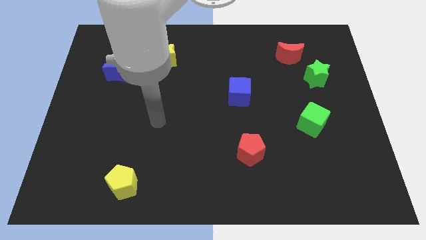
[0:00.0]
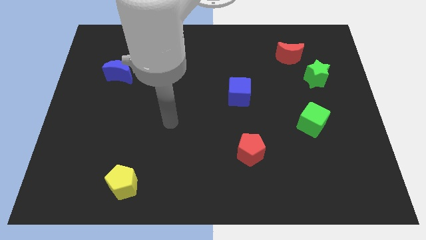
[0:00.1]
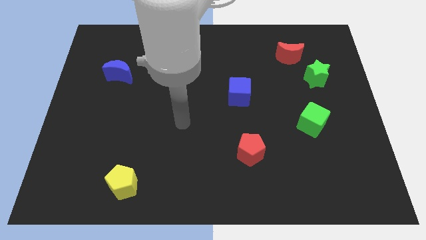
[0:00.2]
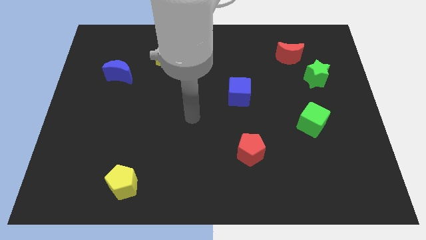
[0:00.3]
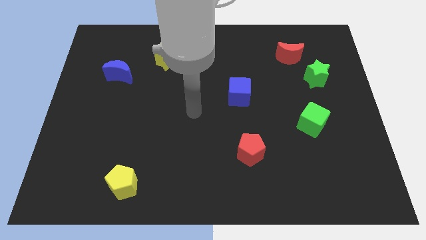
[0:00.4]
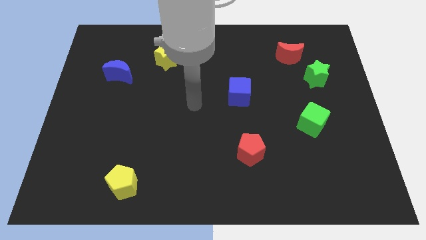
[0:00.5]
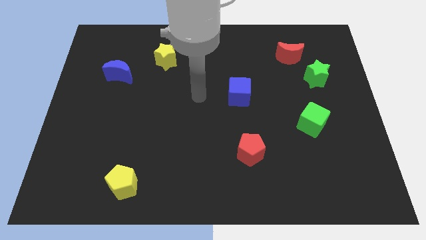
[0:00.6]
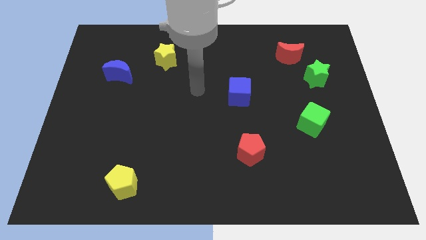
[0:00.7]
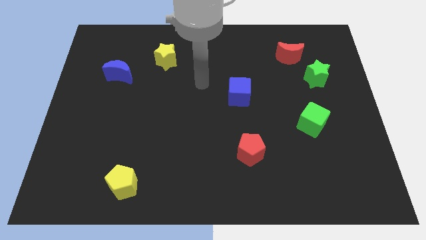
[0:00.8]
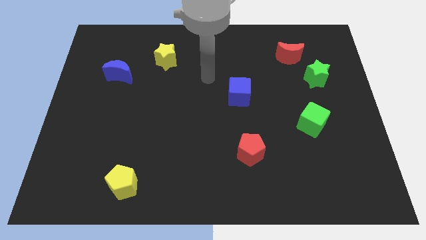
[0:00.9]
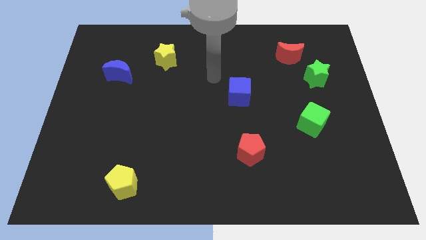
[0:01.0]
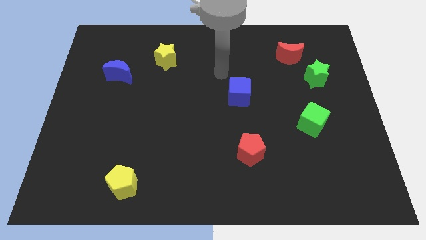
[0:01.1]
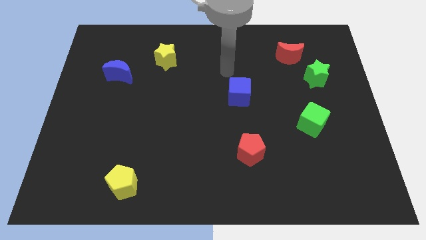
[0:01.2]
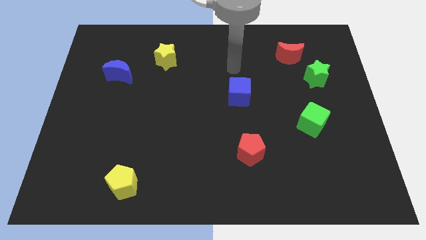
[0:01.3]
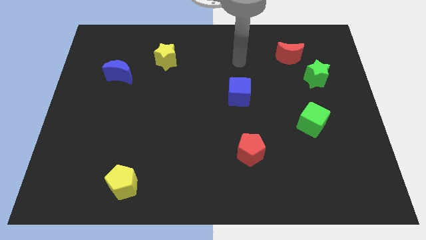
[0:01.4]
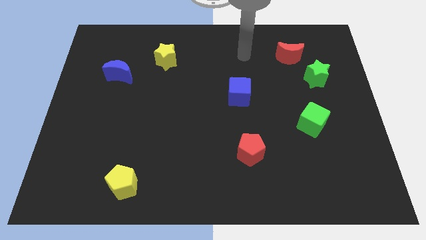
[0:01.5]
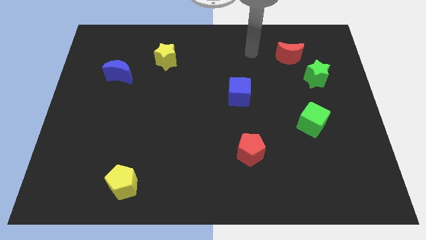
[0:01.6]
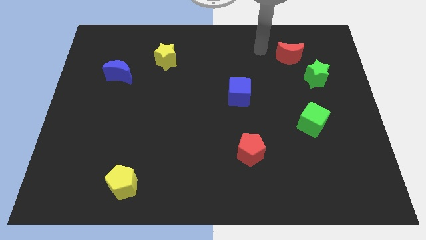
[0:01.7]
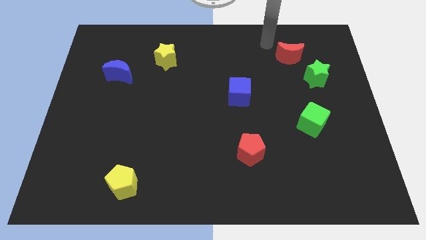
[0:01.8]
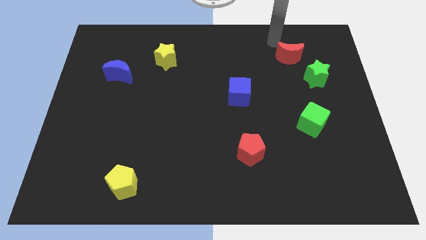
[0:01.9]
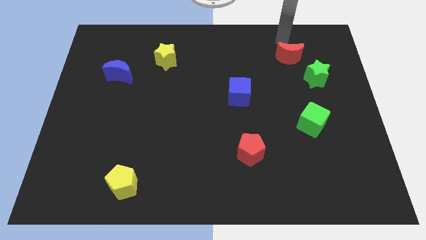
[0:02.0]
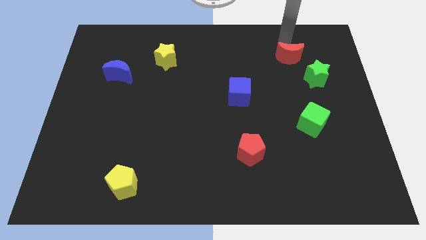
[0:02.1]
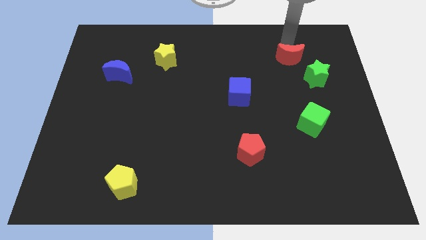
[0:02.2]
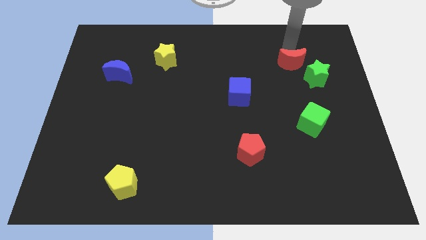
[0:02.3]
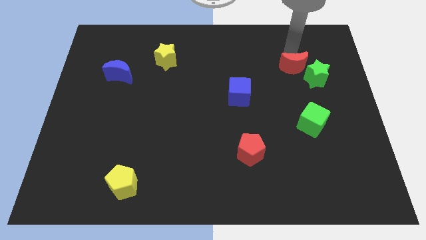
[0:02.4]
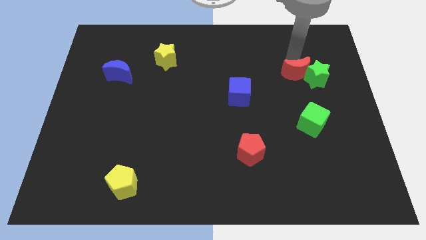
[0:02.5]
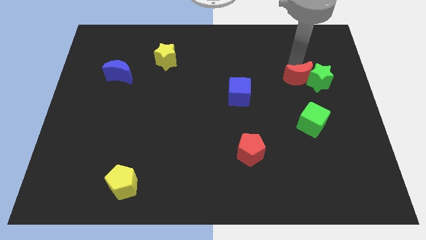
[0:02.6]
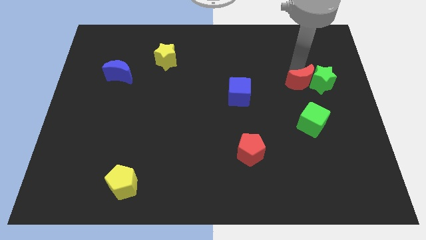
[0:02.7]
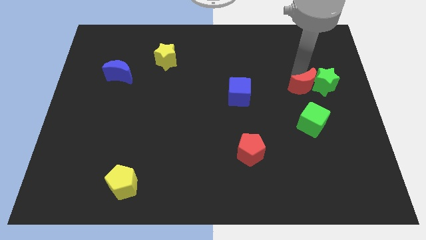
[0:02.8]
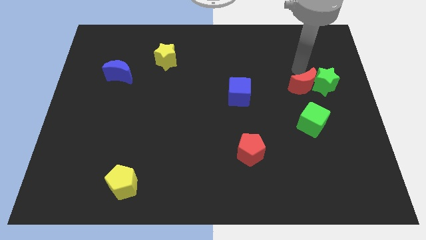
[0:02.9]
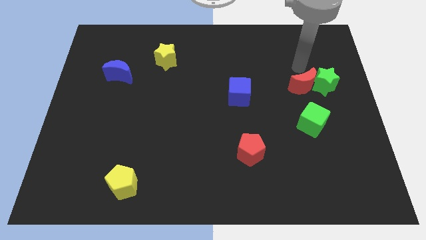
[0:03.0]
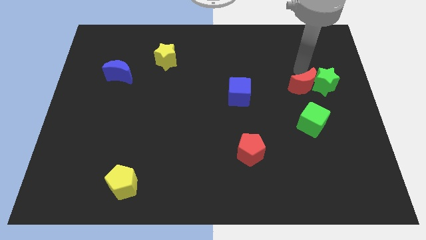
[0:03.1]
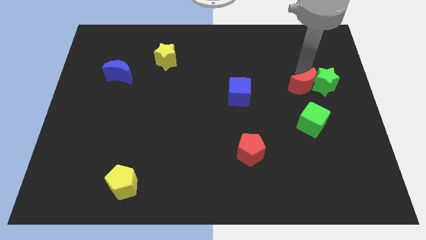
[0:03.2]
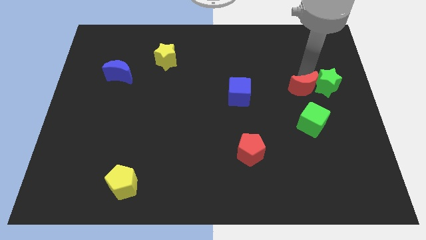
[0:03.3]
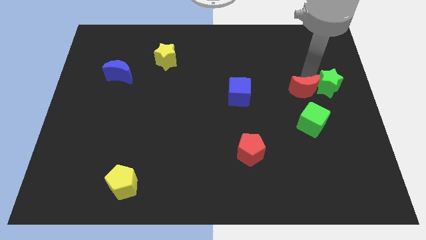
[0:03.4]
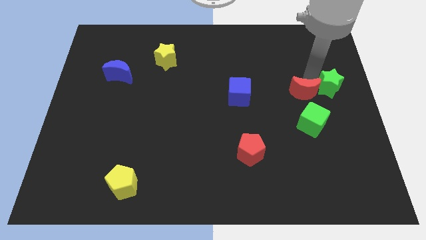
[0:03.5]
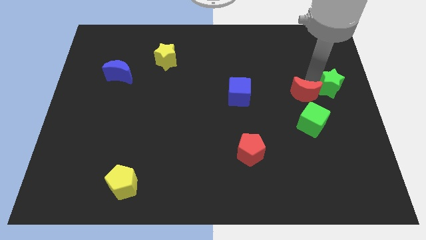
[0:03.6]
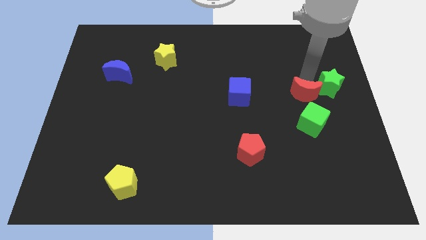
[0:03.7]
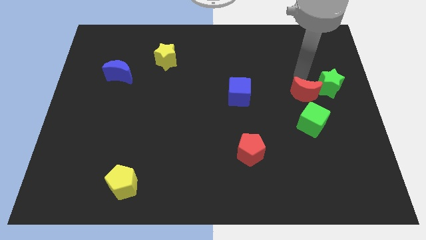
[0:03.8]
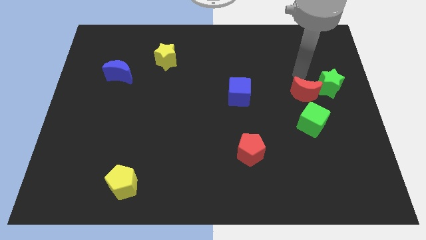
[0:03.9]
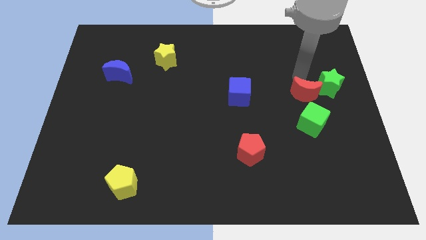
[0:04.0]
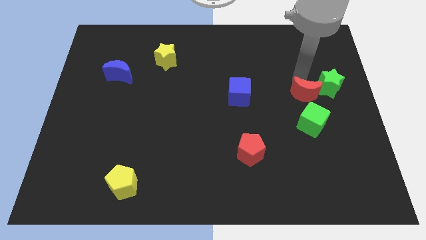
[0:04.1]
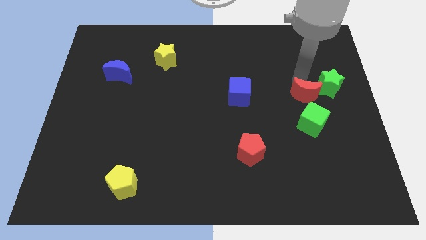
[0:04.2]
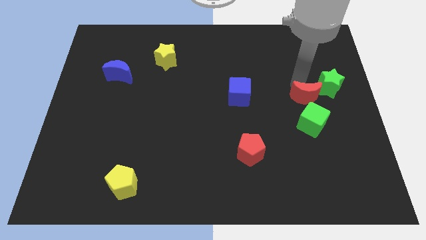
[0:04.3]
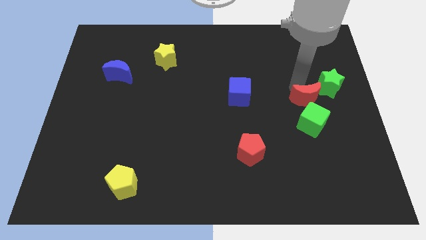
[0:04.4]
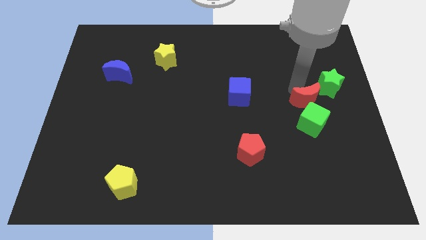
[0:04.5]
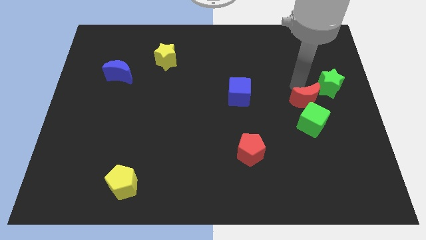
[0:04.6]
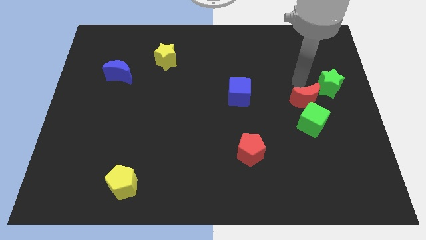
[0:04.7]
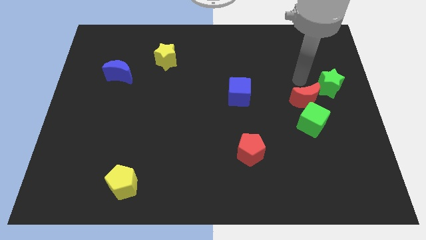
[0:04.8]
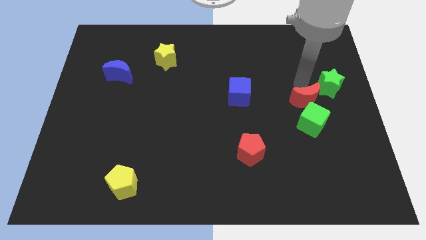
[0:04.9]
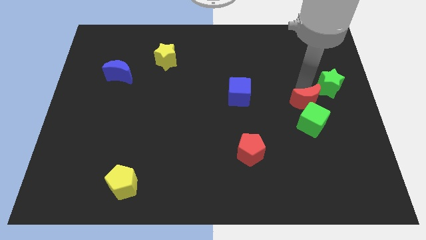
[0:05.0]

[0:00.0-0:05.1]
push the red moon to the green cube

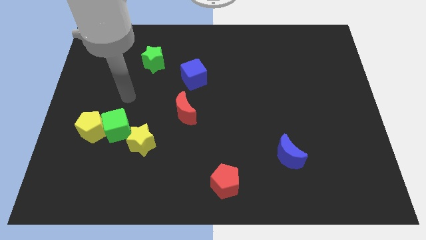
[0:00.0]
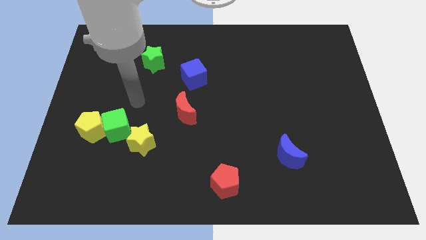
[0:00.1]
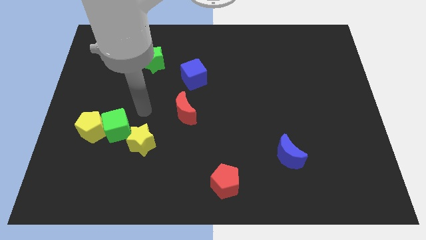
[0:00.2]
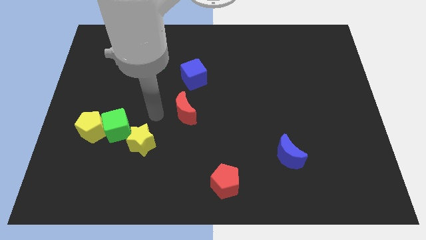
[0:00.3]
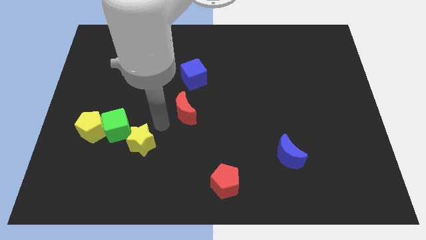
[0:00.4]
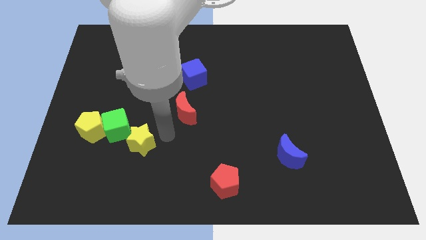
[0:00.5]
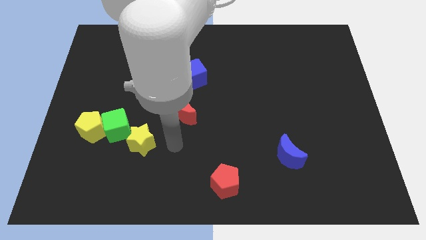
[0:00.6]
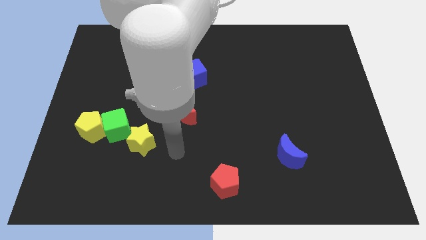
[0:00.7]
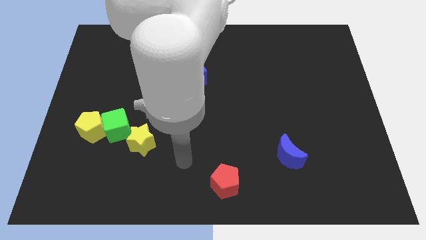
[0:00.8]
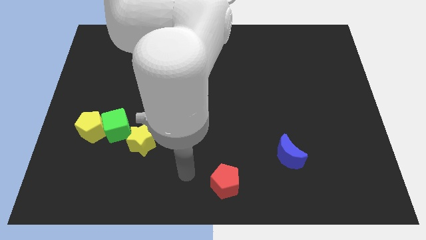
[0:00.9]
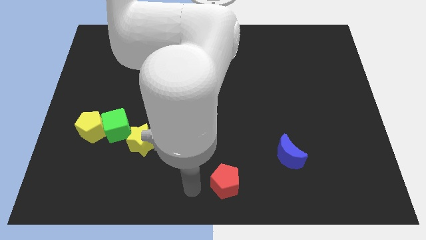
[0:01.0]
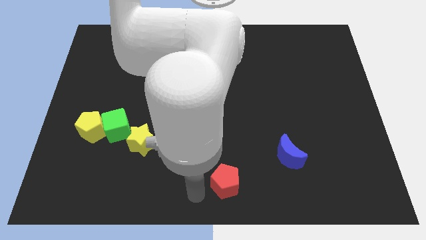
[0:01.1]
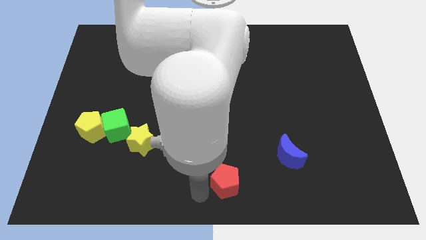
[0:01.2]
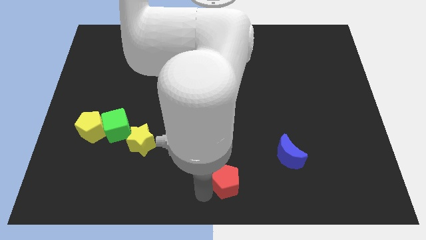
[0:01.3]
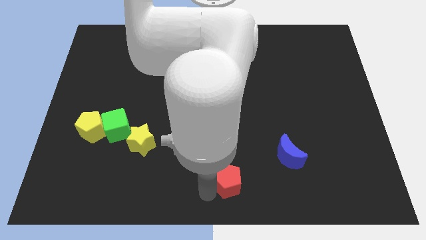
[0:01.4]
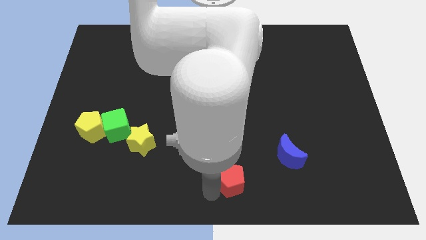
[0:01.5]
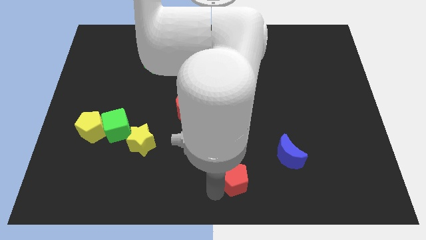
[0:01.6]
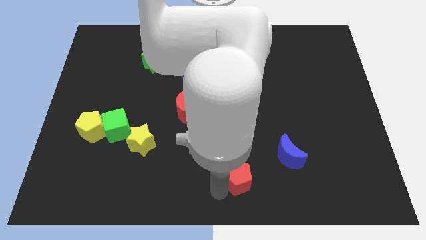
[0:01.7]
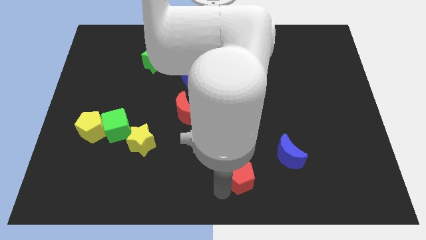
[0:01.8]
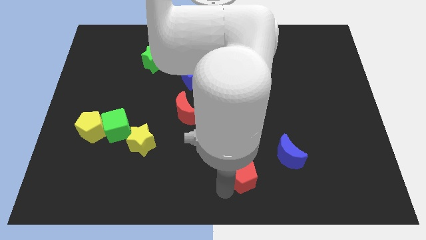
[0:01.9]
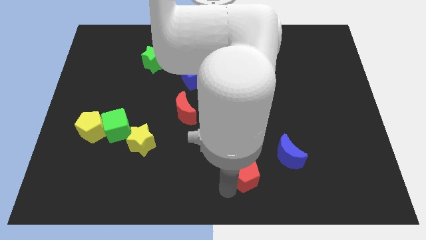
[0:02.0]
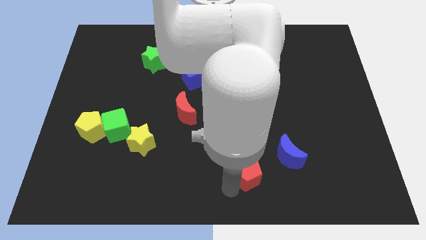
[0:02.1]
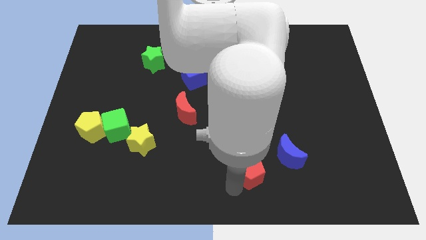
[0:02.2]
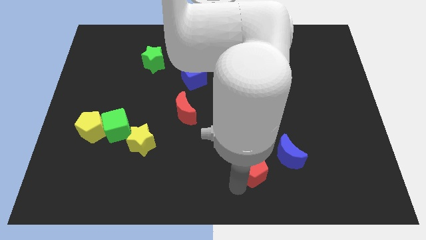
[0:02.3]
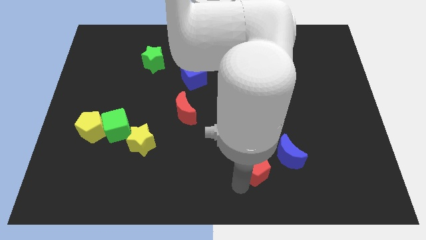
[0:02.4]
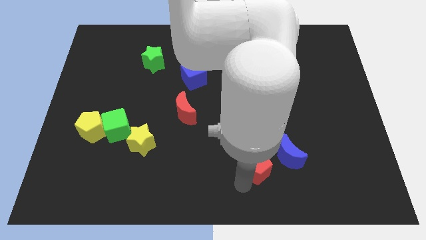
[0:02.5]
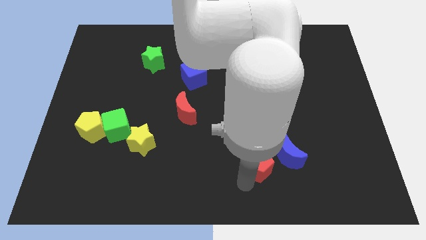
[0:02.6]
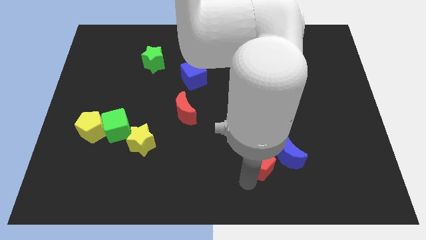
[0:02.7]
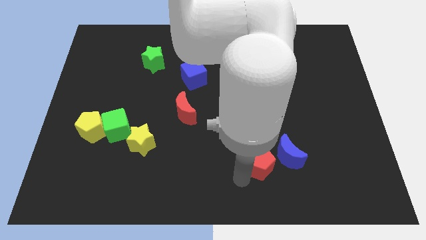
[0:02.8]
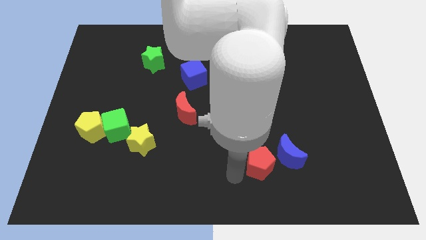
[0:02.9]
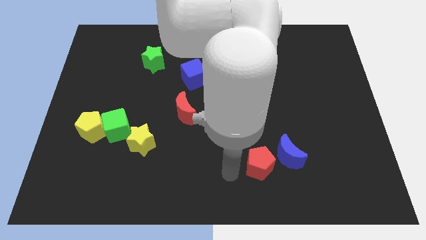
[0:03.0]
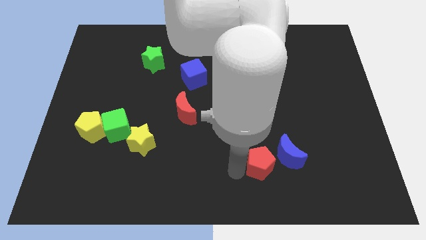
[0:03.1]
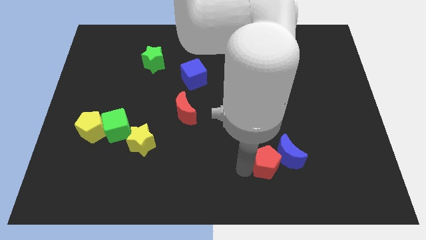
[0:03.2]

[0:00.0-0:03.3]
put the red pentagon to the blue moon
